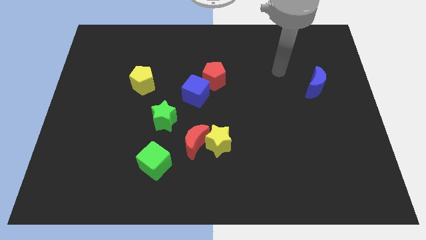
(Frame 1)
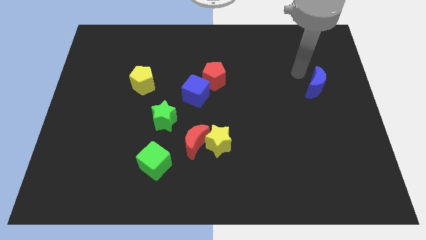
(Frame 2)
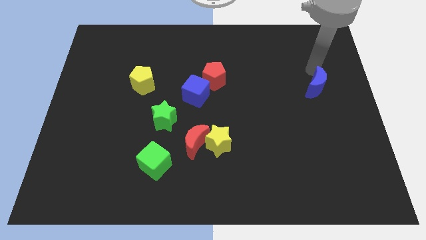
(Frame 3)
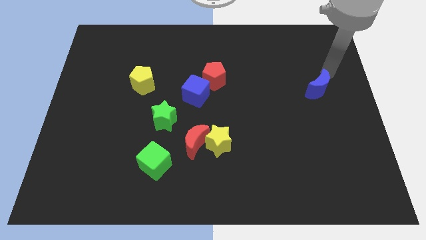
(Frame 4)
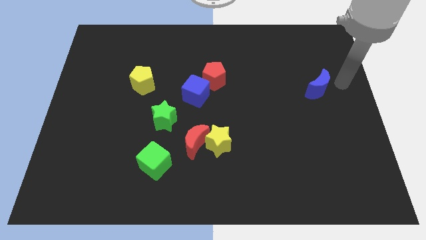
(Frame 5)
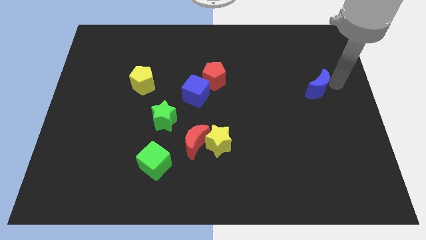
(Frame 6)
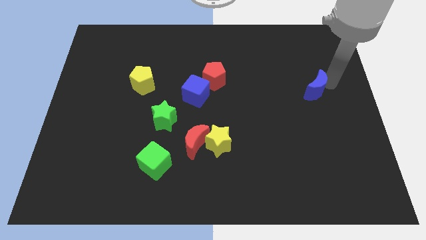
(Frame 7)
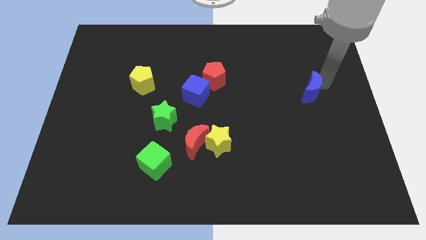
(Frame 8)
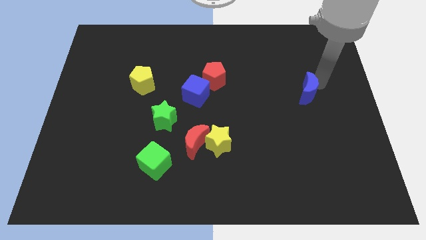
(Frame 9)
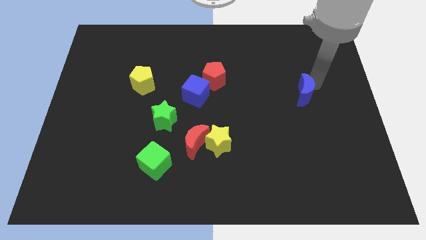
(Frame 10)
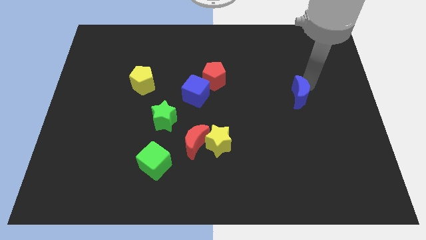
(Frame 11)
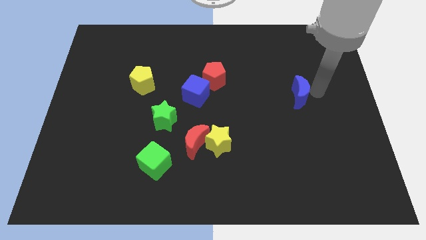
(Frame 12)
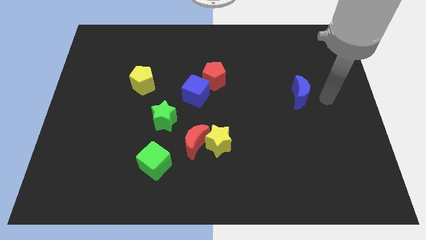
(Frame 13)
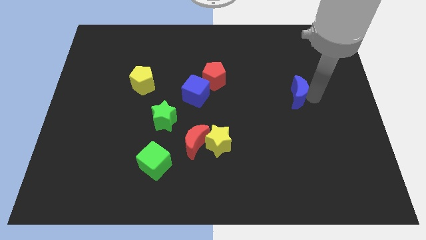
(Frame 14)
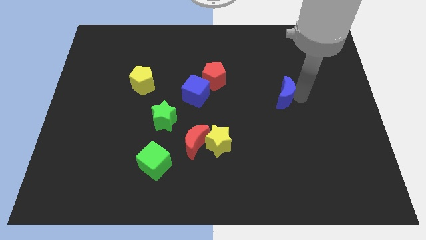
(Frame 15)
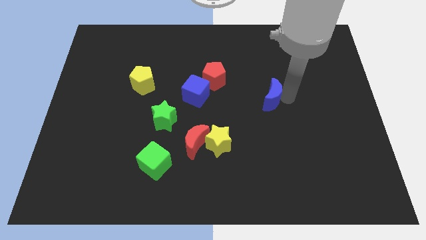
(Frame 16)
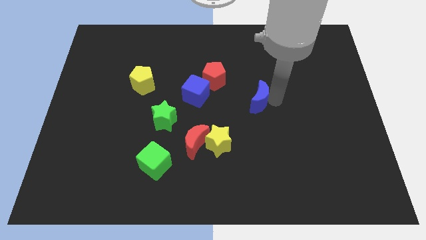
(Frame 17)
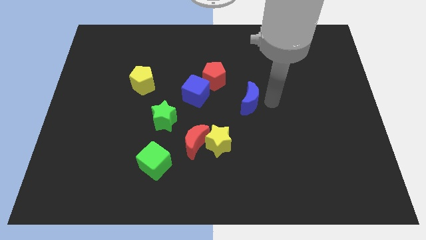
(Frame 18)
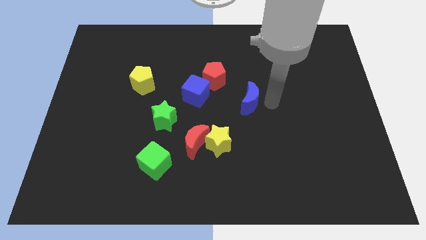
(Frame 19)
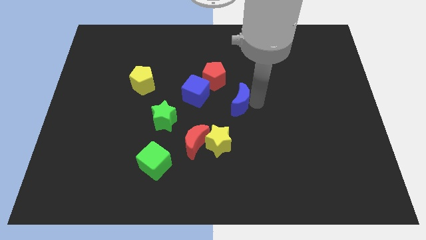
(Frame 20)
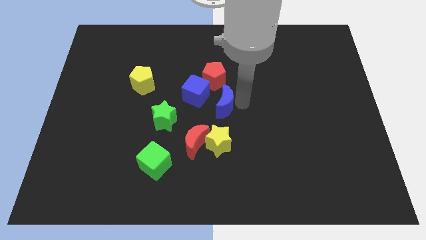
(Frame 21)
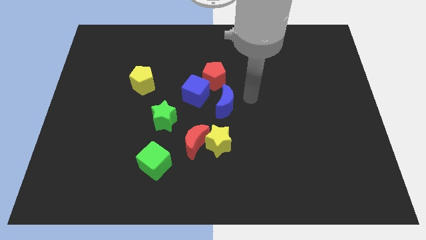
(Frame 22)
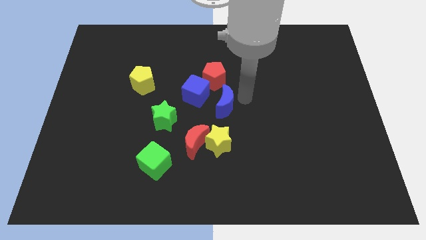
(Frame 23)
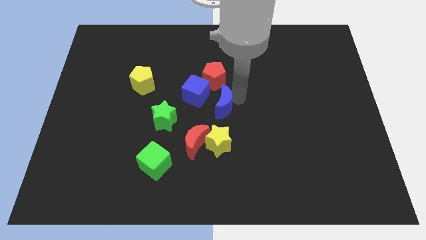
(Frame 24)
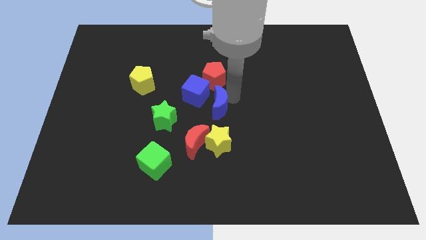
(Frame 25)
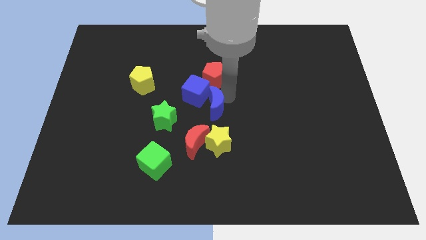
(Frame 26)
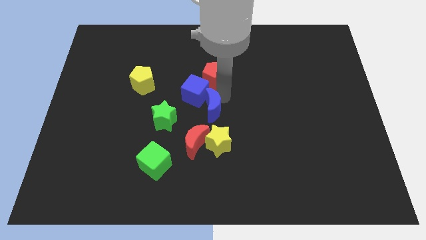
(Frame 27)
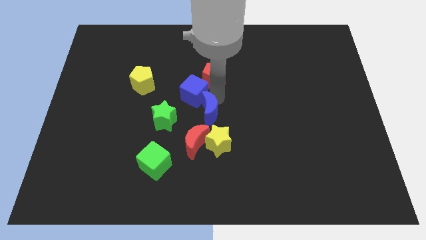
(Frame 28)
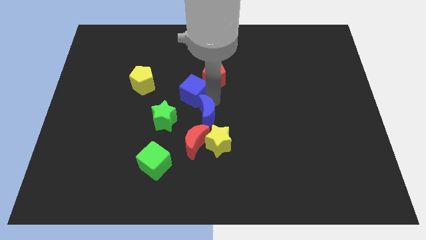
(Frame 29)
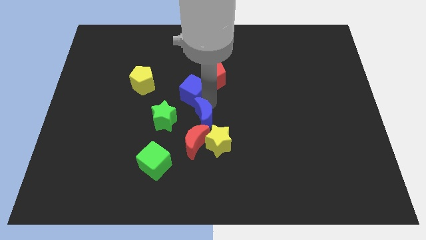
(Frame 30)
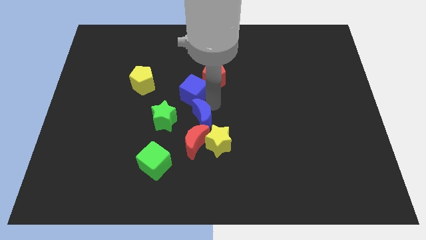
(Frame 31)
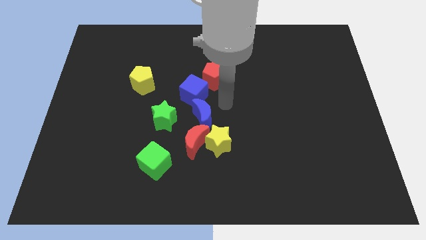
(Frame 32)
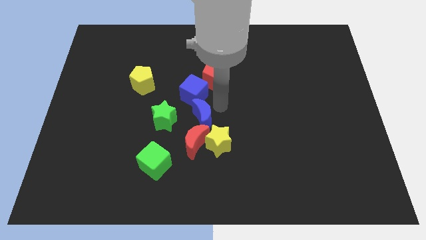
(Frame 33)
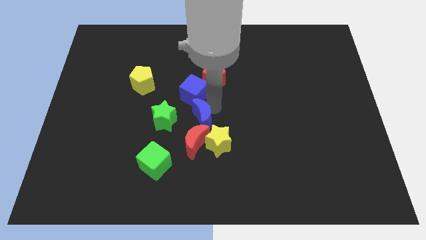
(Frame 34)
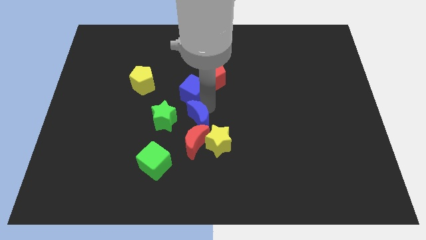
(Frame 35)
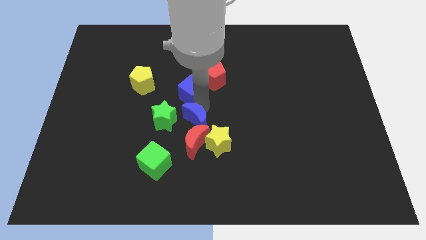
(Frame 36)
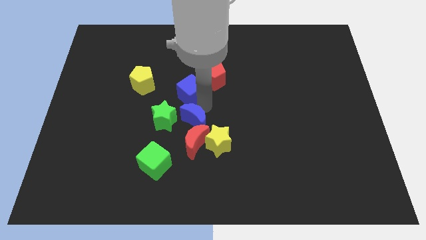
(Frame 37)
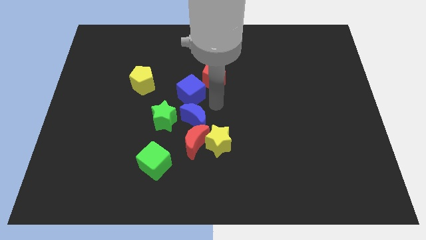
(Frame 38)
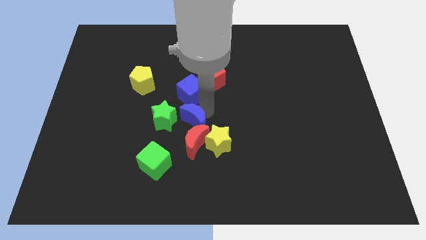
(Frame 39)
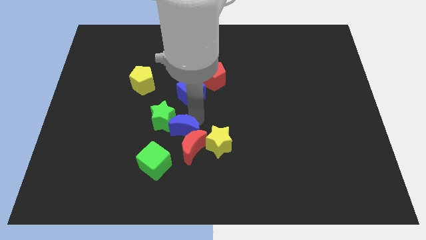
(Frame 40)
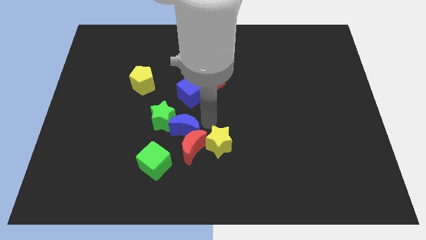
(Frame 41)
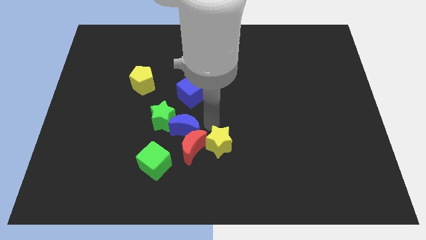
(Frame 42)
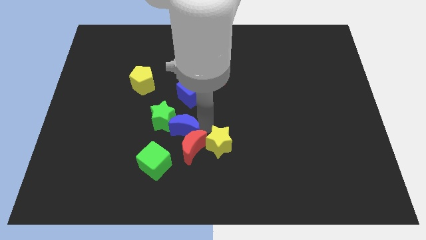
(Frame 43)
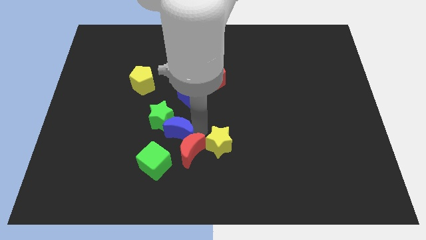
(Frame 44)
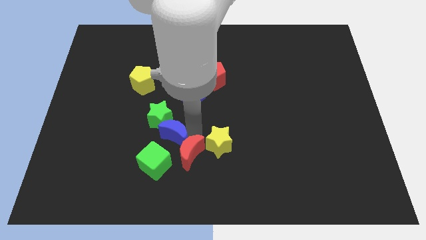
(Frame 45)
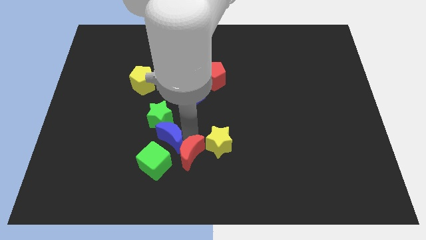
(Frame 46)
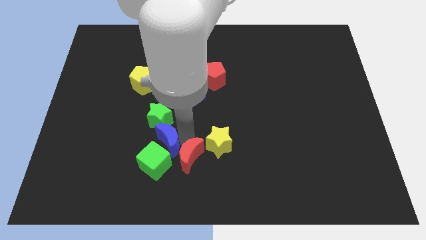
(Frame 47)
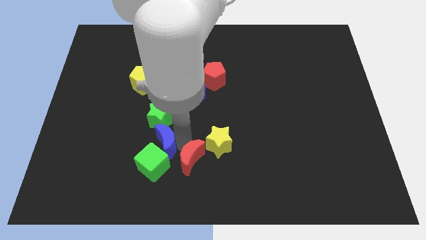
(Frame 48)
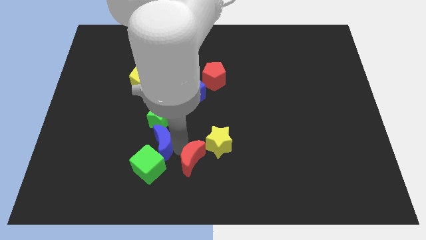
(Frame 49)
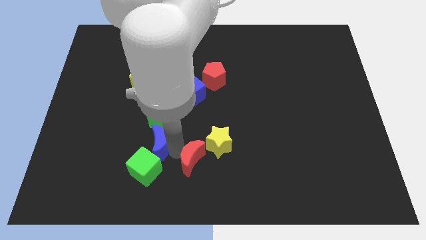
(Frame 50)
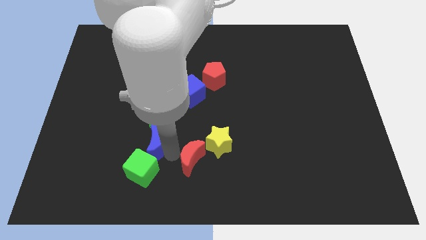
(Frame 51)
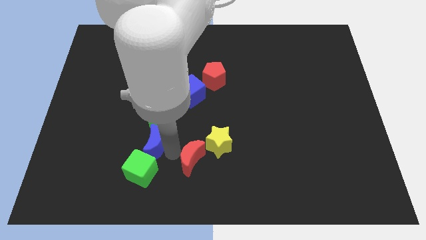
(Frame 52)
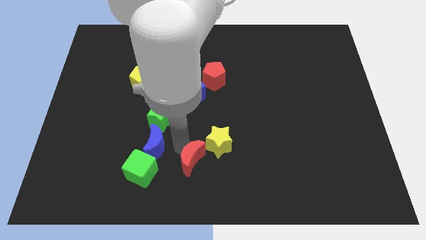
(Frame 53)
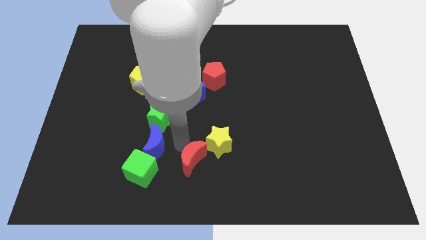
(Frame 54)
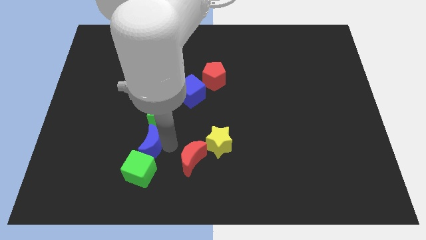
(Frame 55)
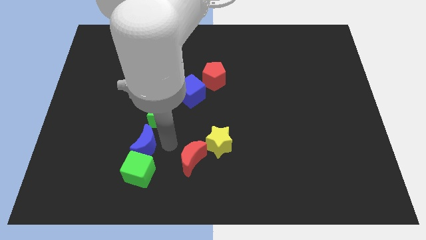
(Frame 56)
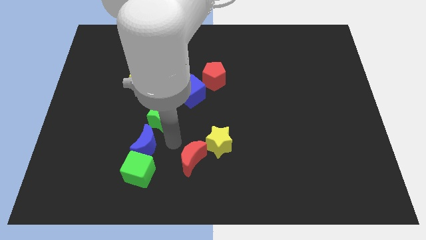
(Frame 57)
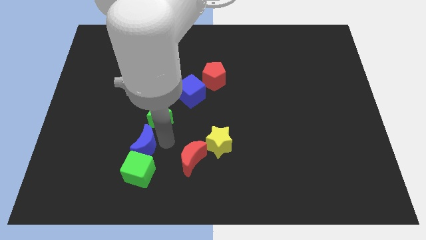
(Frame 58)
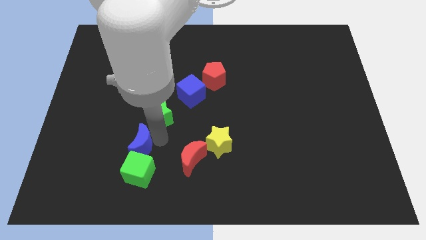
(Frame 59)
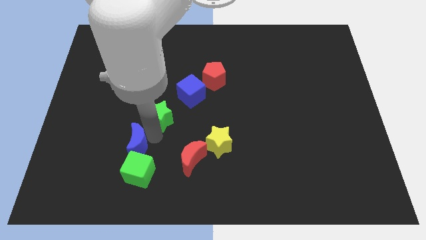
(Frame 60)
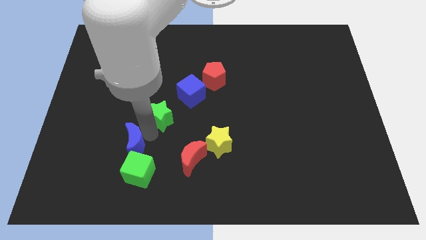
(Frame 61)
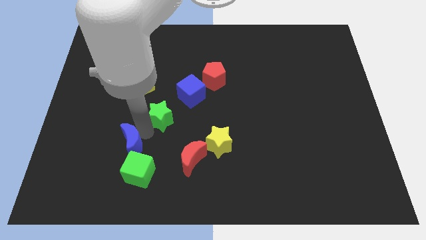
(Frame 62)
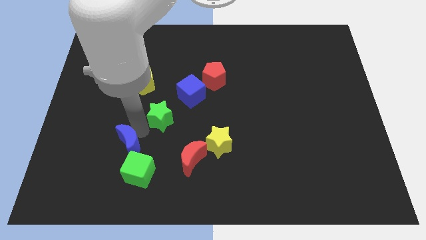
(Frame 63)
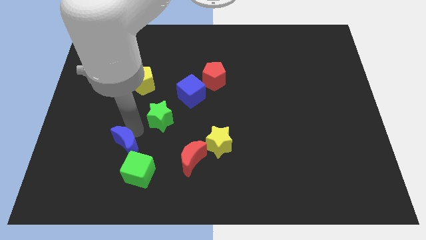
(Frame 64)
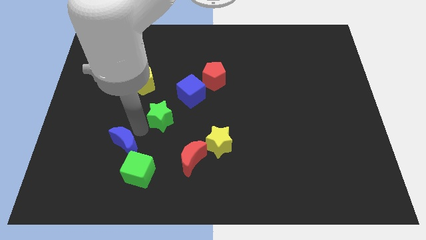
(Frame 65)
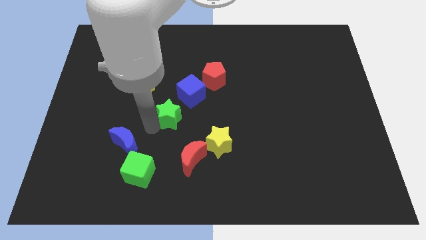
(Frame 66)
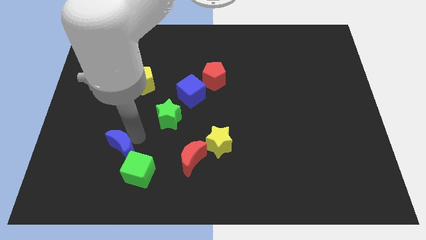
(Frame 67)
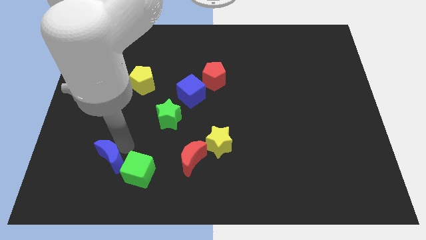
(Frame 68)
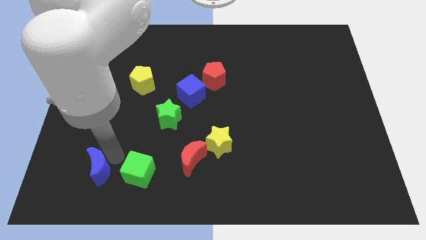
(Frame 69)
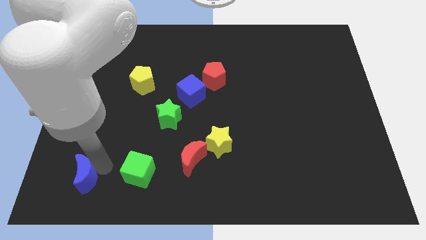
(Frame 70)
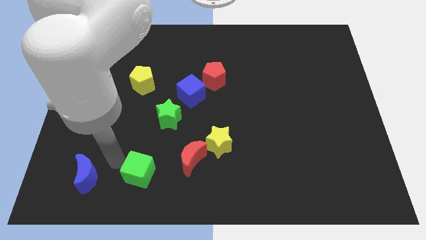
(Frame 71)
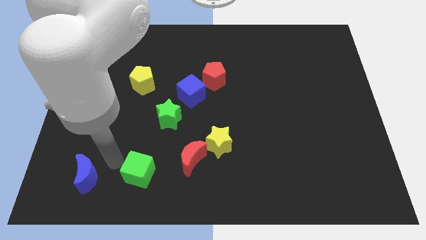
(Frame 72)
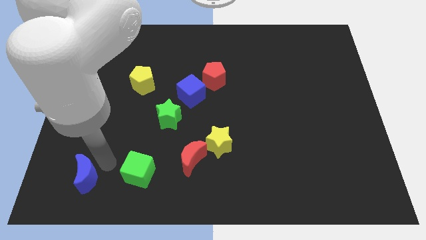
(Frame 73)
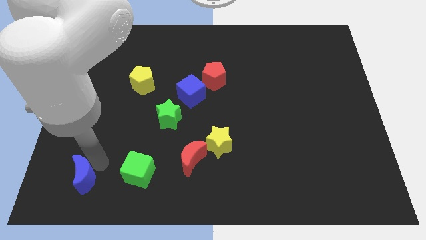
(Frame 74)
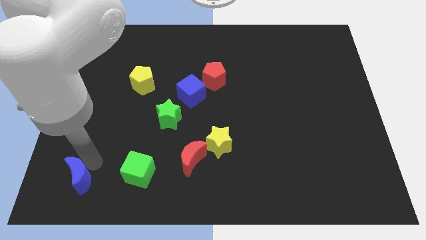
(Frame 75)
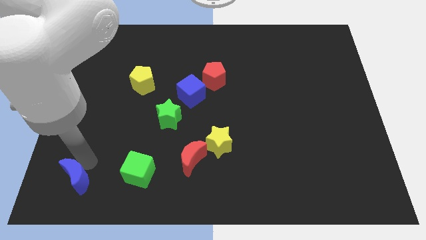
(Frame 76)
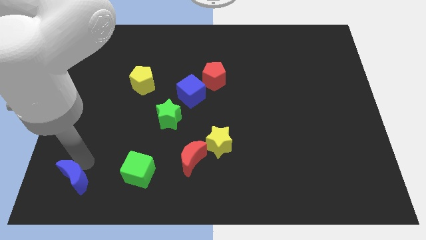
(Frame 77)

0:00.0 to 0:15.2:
move the blue moon to the bottom left of the board
